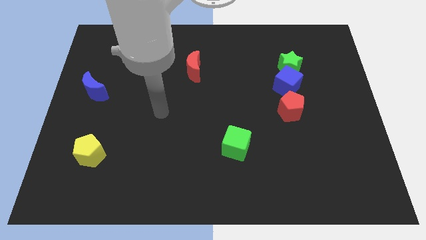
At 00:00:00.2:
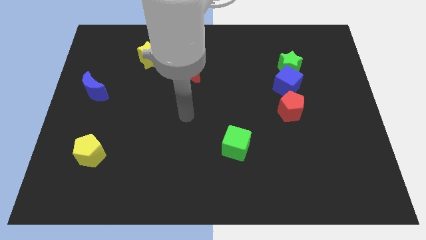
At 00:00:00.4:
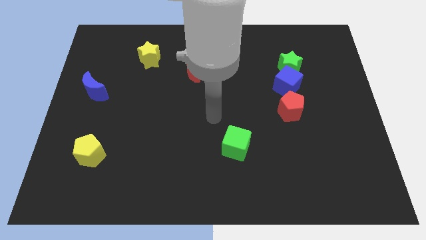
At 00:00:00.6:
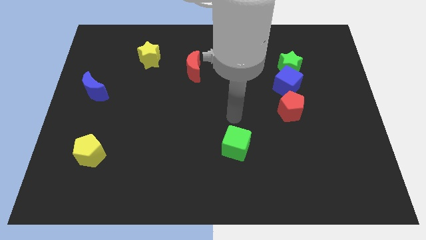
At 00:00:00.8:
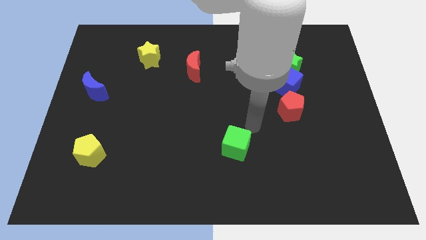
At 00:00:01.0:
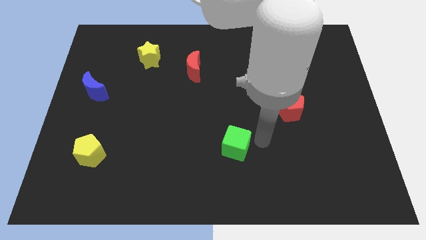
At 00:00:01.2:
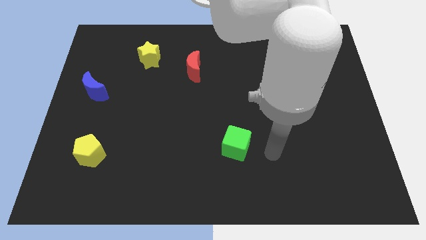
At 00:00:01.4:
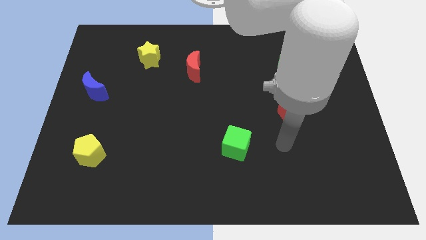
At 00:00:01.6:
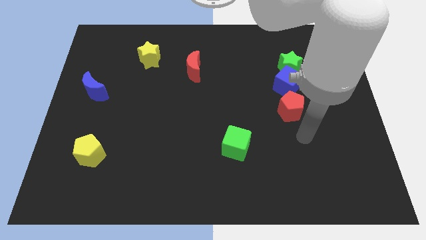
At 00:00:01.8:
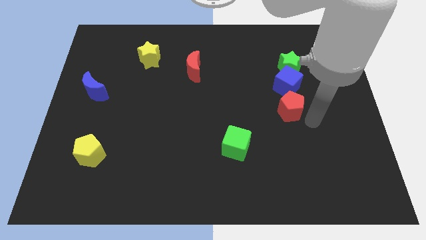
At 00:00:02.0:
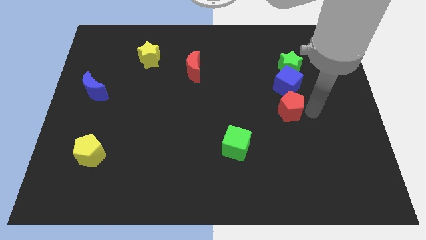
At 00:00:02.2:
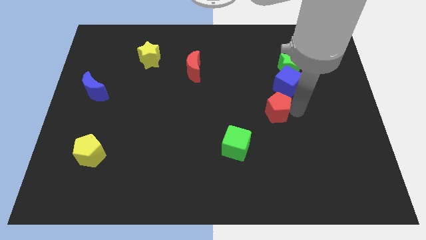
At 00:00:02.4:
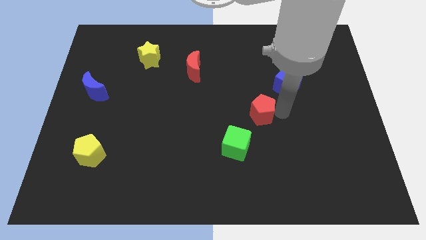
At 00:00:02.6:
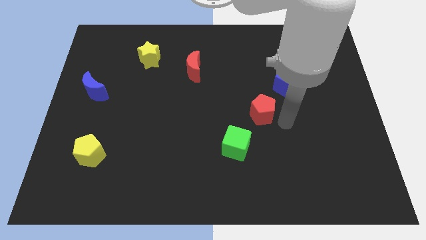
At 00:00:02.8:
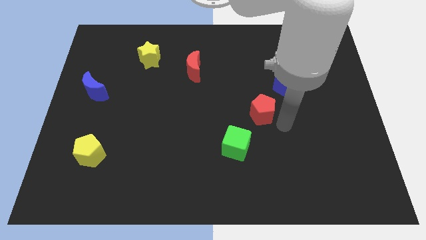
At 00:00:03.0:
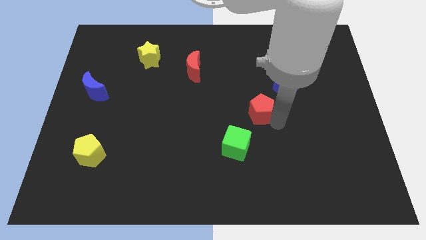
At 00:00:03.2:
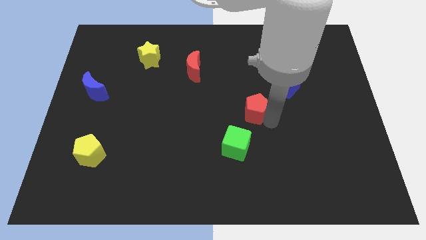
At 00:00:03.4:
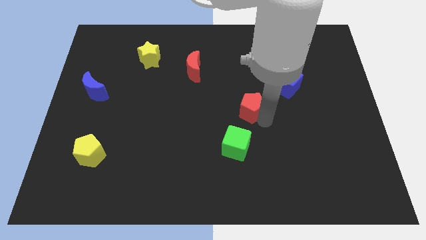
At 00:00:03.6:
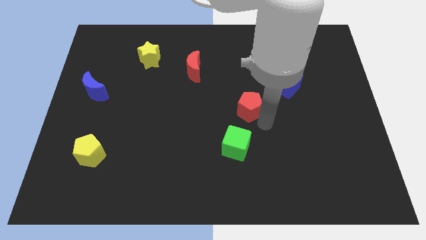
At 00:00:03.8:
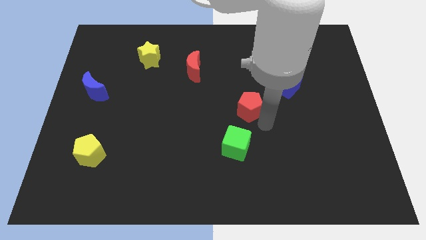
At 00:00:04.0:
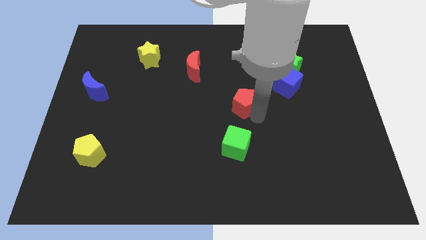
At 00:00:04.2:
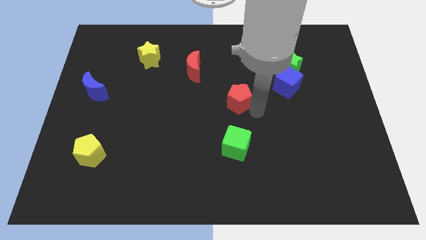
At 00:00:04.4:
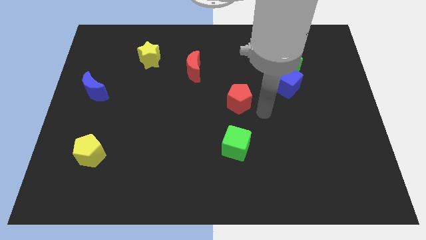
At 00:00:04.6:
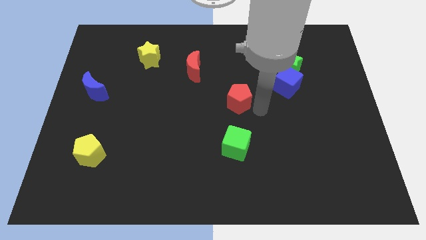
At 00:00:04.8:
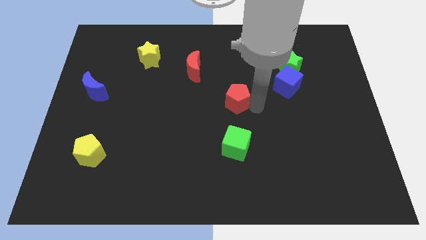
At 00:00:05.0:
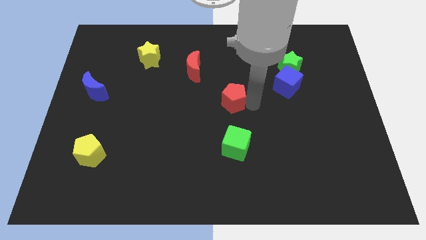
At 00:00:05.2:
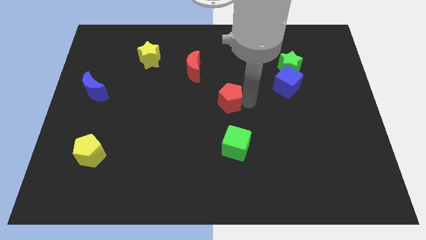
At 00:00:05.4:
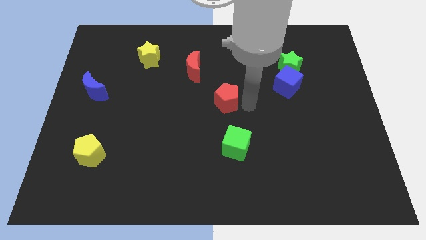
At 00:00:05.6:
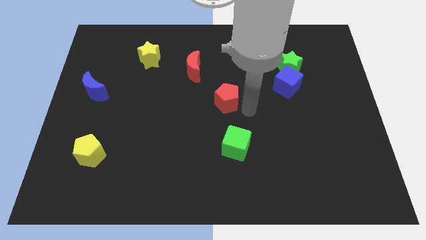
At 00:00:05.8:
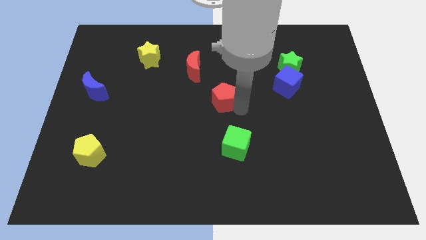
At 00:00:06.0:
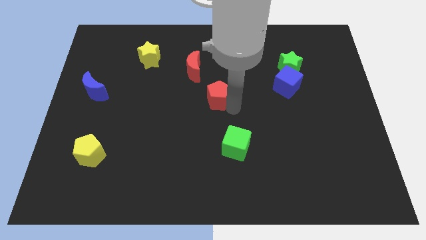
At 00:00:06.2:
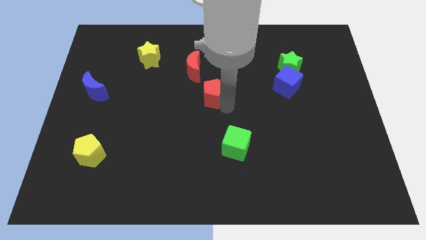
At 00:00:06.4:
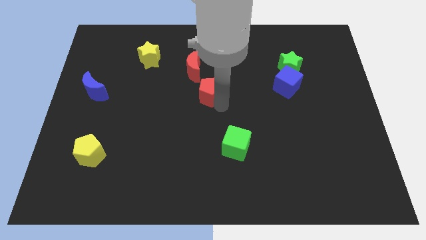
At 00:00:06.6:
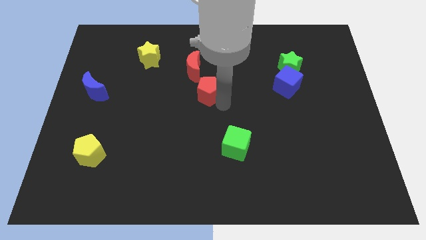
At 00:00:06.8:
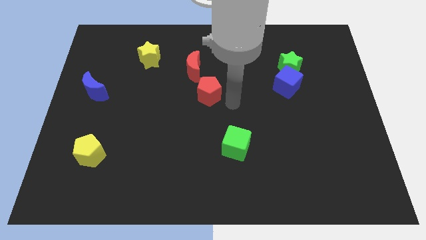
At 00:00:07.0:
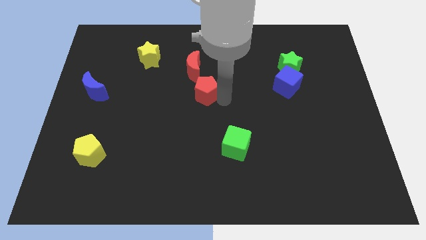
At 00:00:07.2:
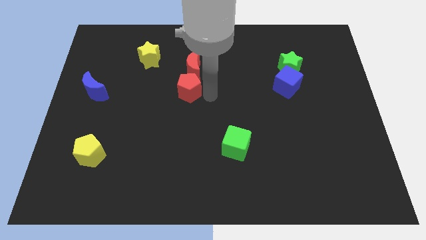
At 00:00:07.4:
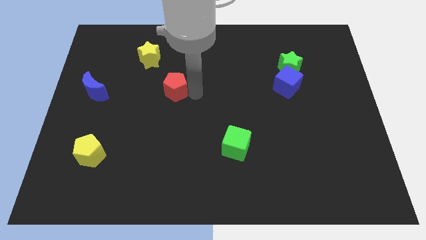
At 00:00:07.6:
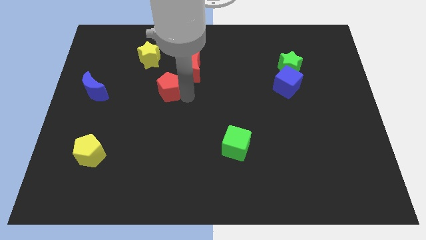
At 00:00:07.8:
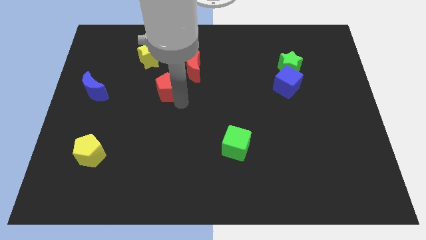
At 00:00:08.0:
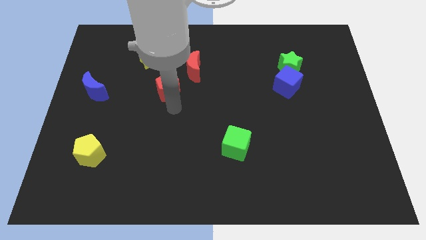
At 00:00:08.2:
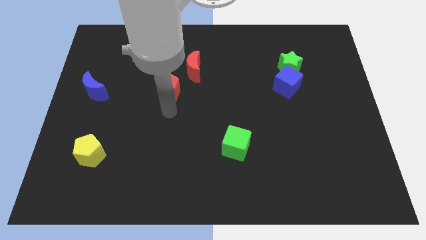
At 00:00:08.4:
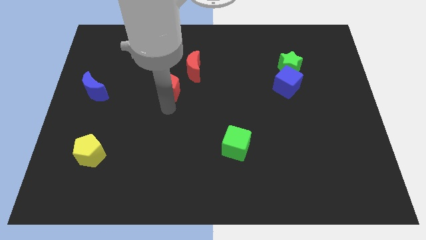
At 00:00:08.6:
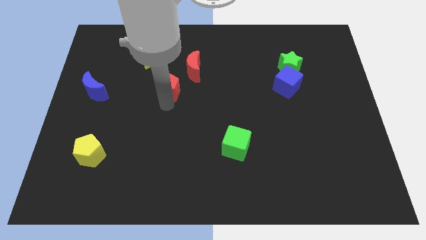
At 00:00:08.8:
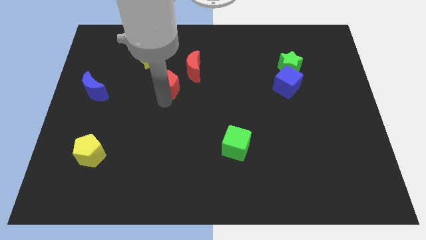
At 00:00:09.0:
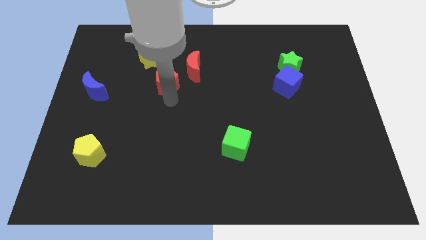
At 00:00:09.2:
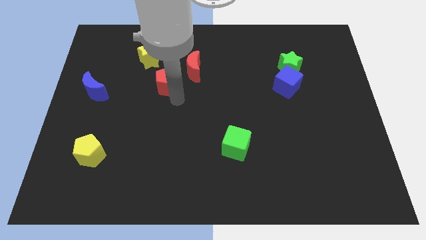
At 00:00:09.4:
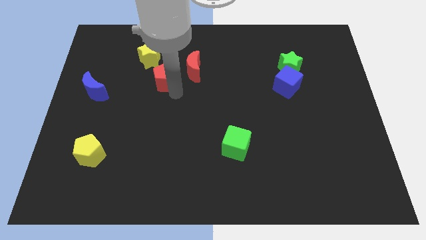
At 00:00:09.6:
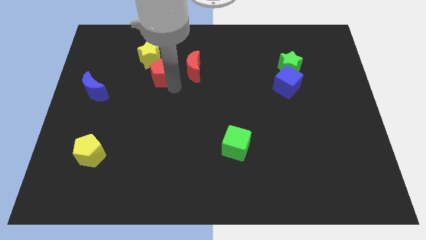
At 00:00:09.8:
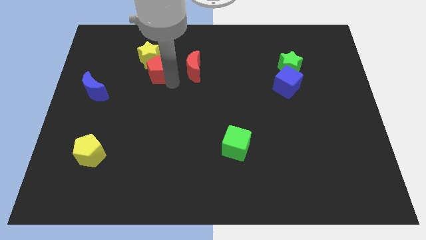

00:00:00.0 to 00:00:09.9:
slide the red pentagon next to the yellow star

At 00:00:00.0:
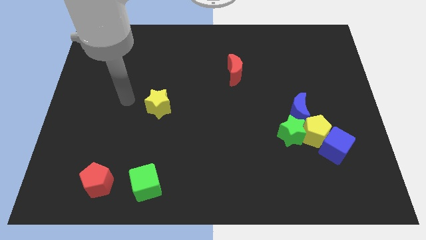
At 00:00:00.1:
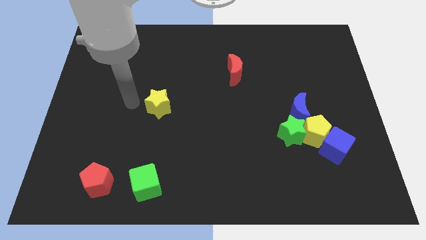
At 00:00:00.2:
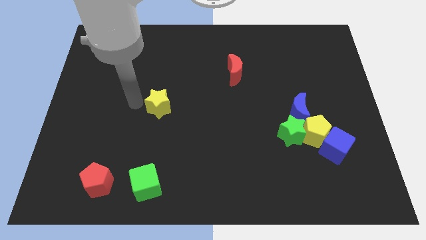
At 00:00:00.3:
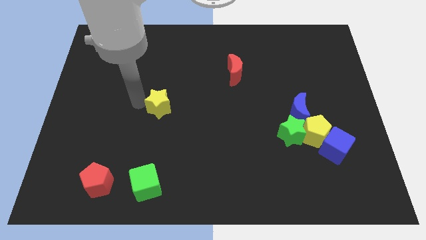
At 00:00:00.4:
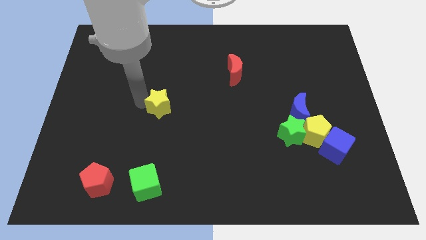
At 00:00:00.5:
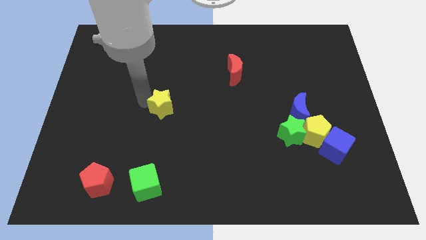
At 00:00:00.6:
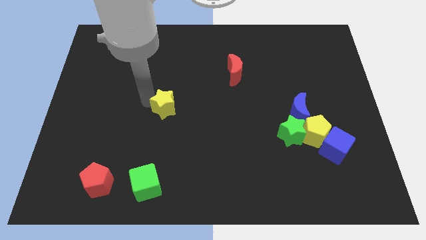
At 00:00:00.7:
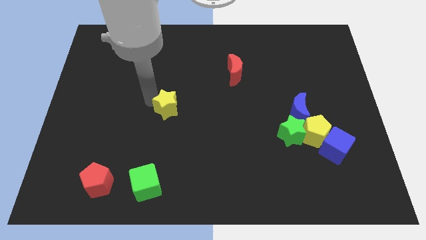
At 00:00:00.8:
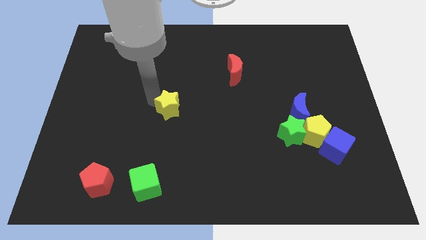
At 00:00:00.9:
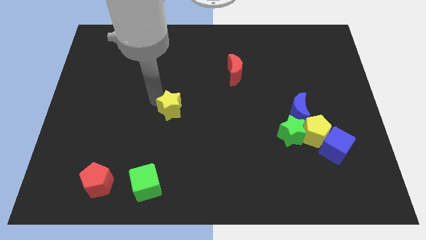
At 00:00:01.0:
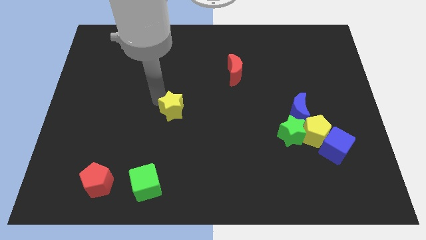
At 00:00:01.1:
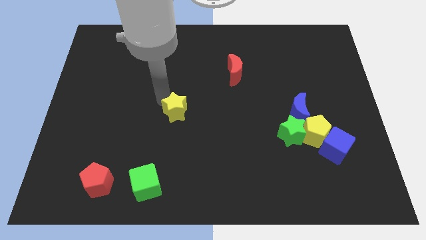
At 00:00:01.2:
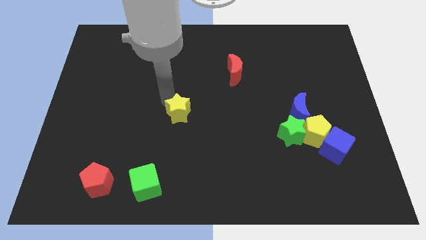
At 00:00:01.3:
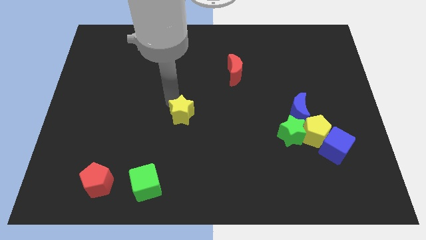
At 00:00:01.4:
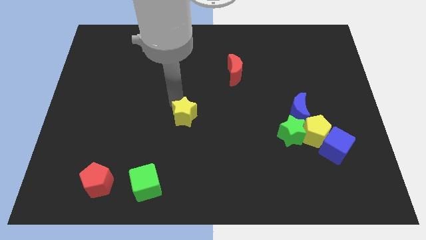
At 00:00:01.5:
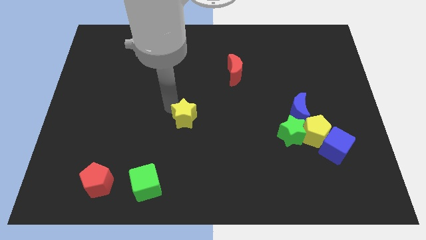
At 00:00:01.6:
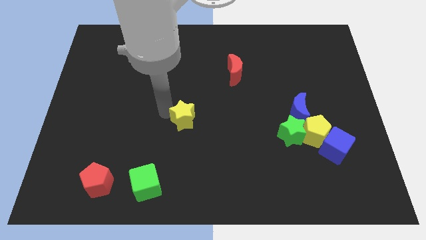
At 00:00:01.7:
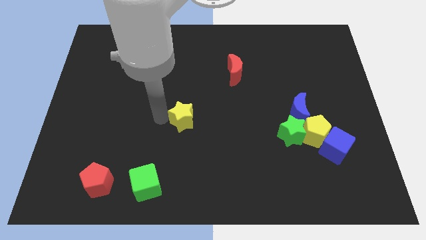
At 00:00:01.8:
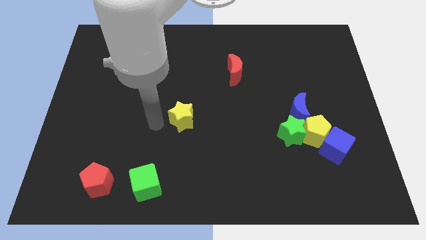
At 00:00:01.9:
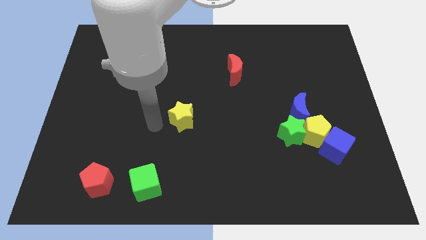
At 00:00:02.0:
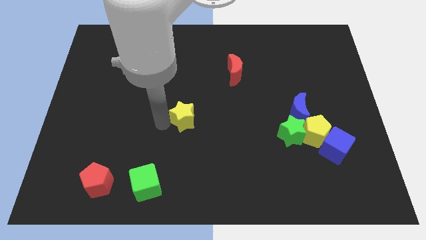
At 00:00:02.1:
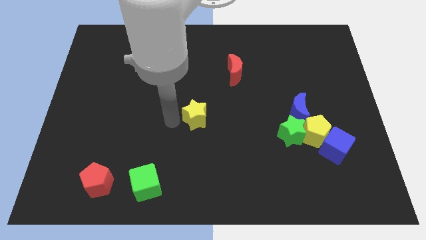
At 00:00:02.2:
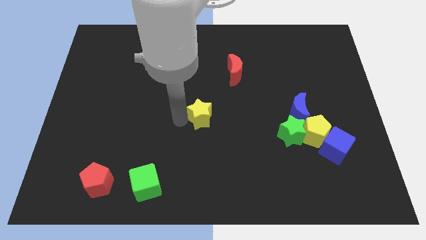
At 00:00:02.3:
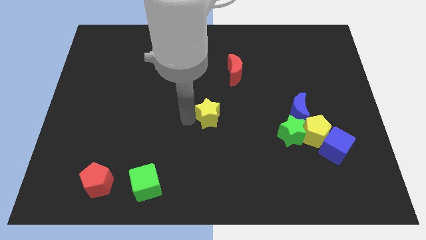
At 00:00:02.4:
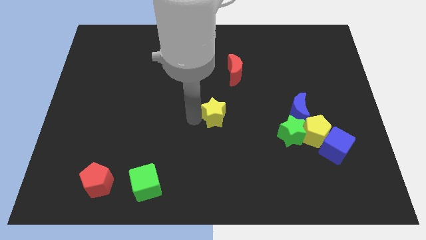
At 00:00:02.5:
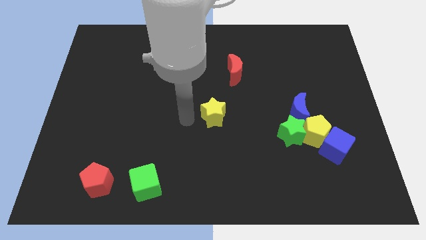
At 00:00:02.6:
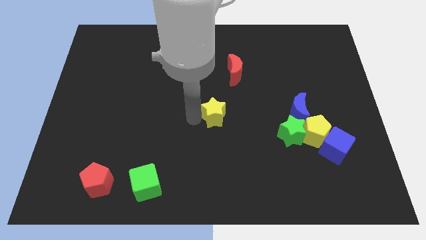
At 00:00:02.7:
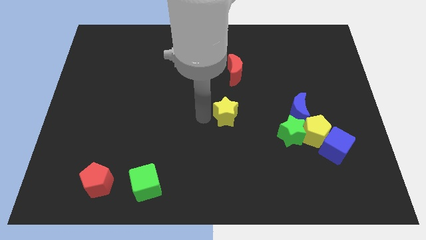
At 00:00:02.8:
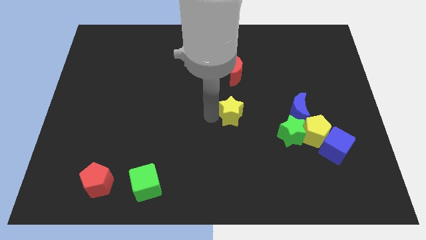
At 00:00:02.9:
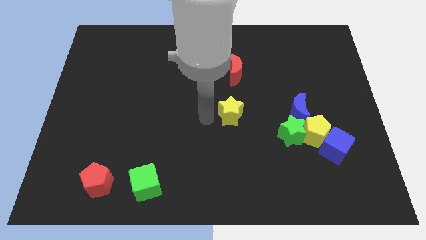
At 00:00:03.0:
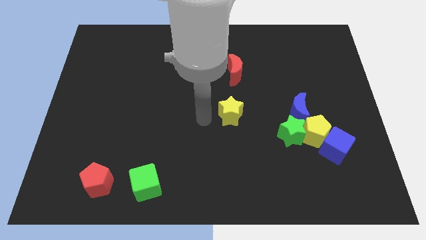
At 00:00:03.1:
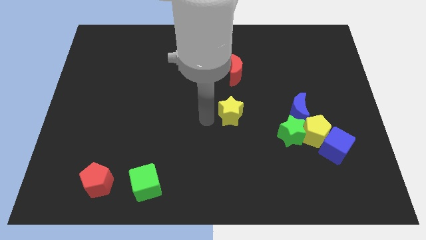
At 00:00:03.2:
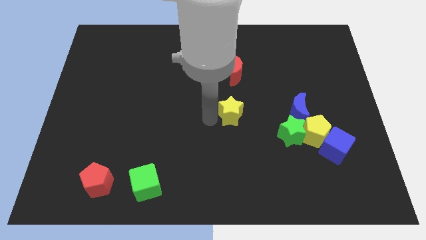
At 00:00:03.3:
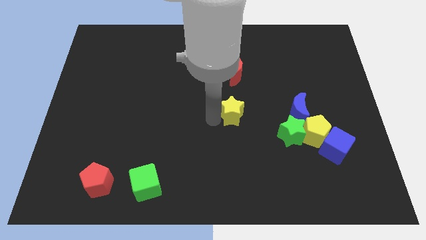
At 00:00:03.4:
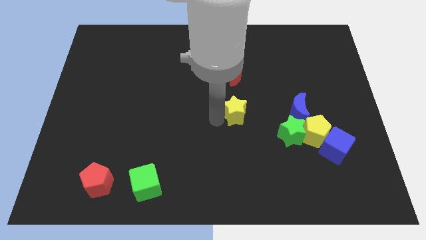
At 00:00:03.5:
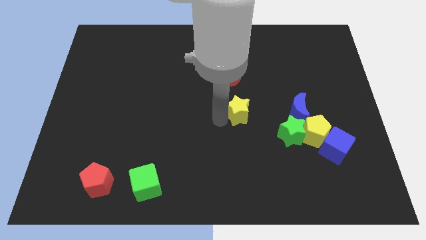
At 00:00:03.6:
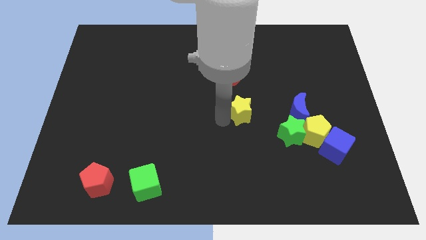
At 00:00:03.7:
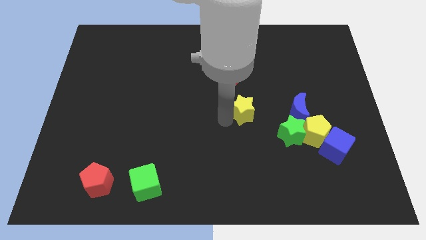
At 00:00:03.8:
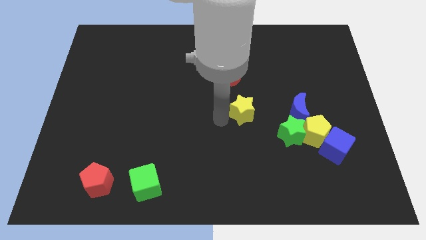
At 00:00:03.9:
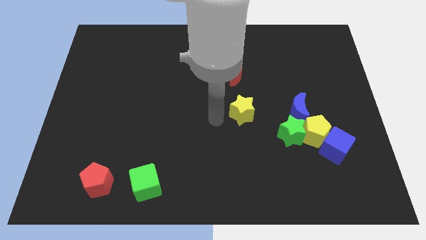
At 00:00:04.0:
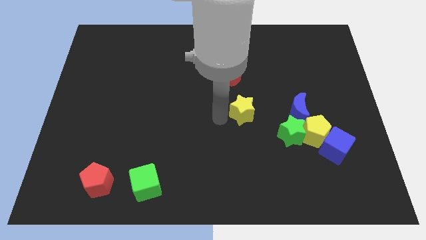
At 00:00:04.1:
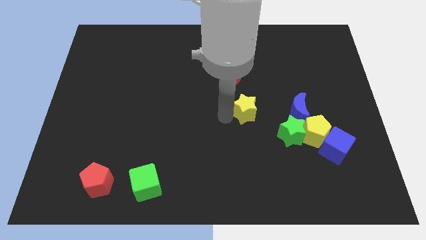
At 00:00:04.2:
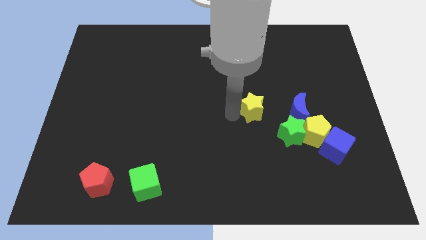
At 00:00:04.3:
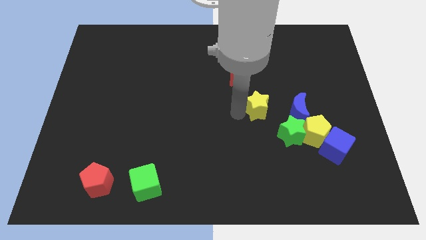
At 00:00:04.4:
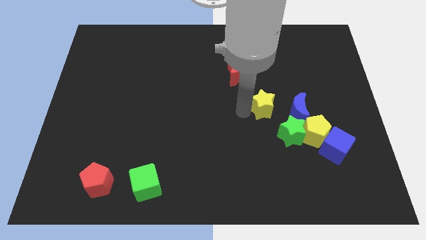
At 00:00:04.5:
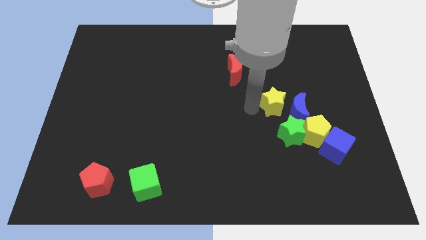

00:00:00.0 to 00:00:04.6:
slide the yellow star to the blue moon
